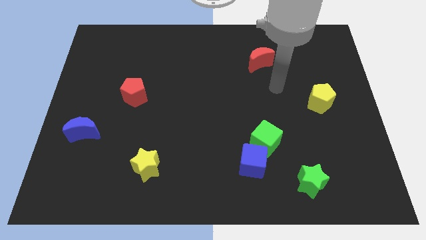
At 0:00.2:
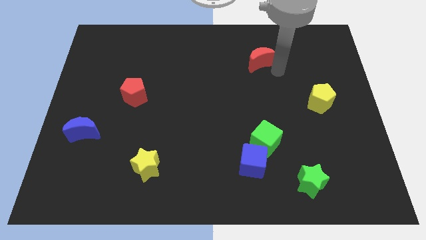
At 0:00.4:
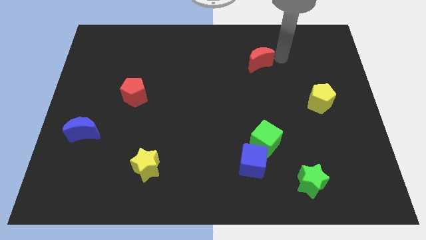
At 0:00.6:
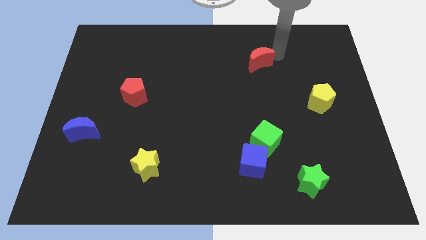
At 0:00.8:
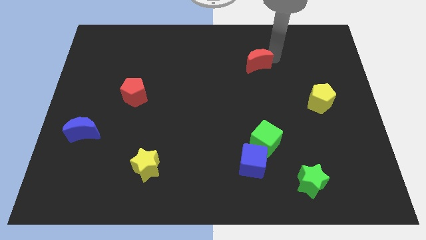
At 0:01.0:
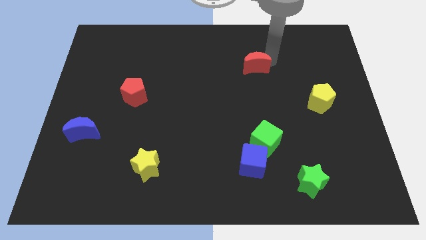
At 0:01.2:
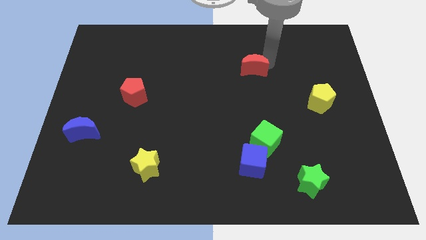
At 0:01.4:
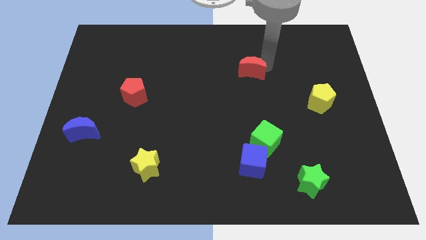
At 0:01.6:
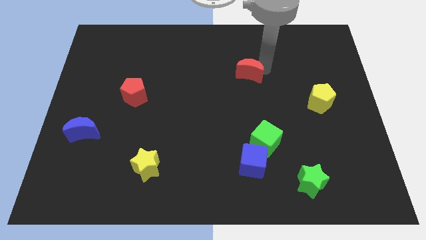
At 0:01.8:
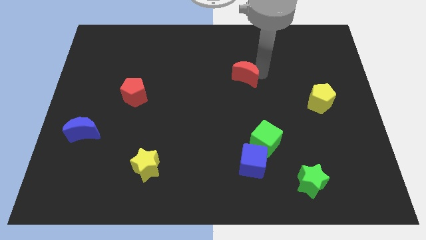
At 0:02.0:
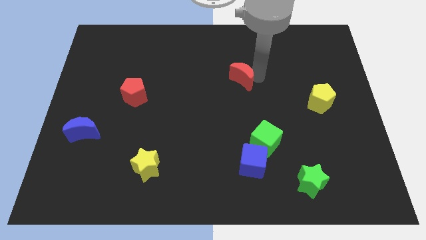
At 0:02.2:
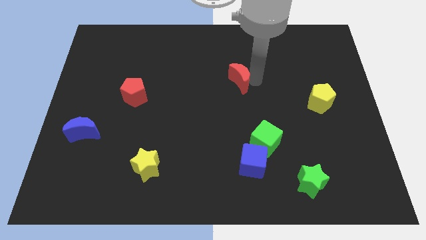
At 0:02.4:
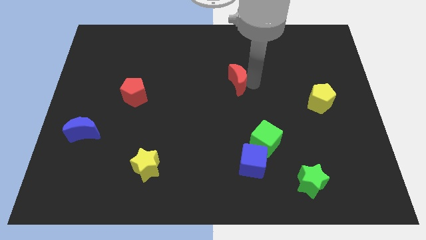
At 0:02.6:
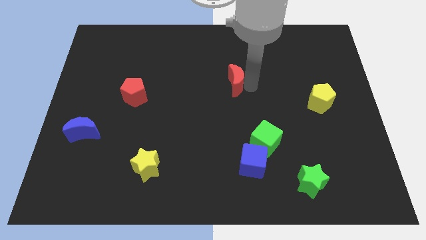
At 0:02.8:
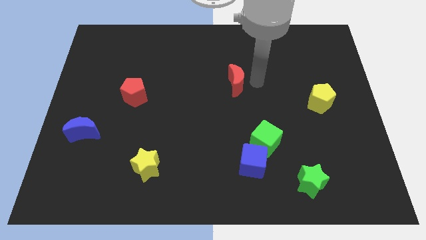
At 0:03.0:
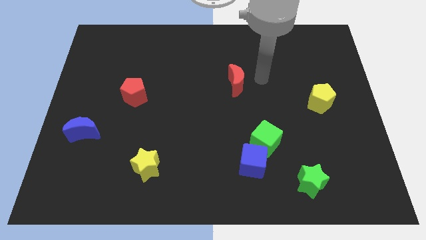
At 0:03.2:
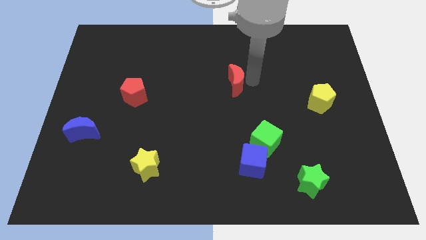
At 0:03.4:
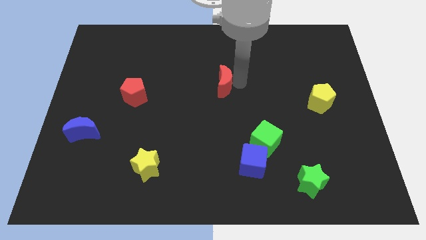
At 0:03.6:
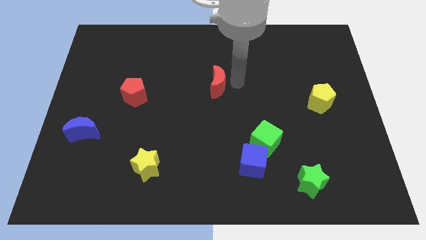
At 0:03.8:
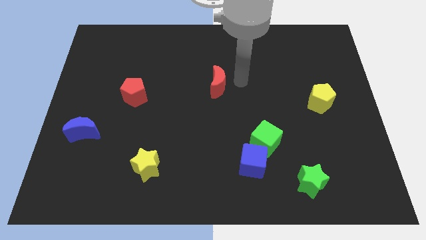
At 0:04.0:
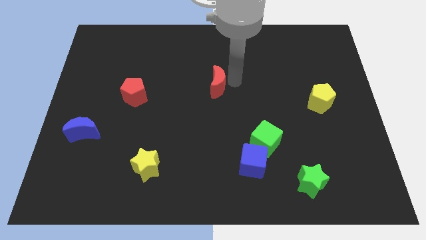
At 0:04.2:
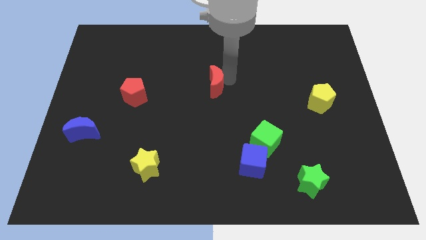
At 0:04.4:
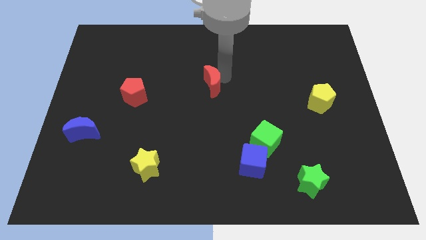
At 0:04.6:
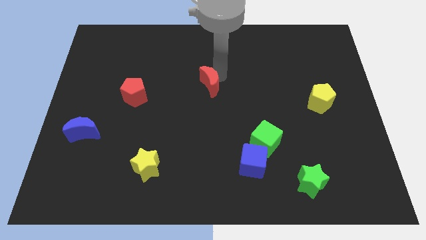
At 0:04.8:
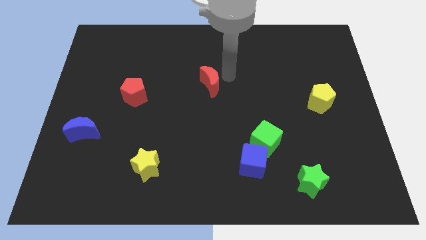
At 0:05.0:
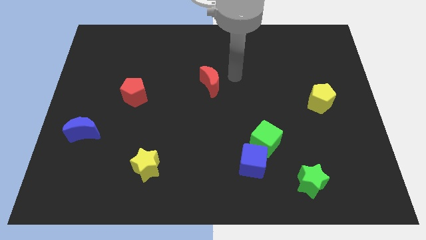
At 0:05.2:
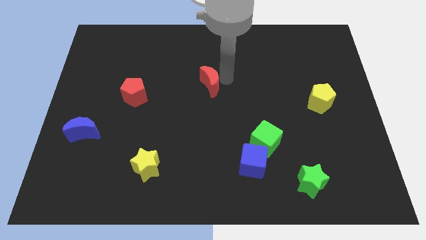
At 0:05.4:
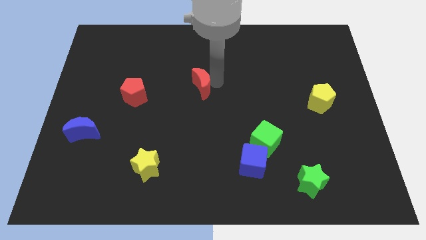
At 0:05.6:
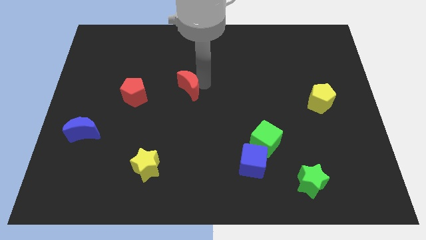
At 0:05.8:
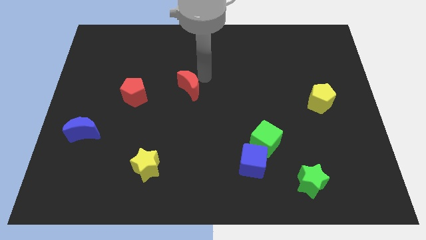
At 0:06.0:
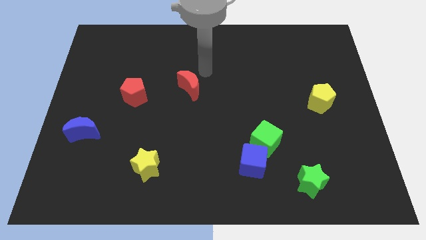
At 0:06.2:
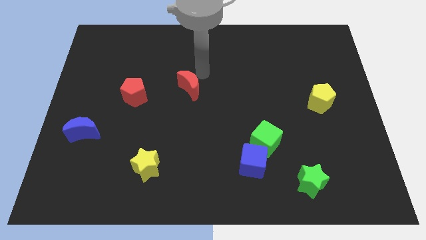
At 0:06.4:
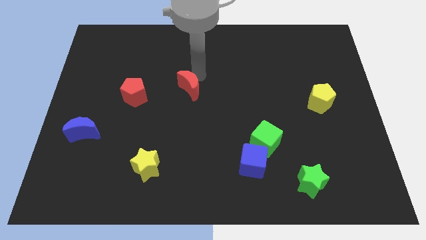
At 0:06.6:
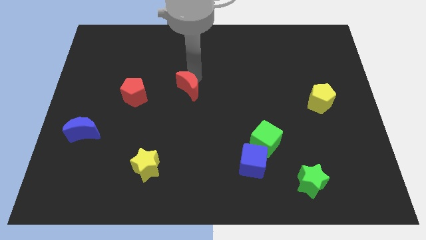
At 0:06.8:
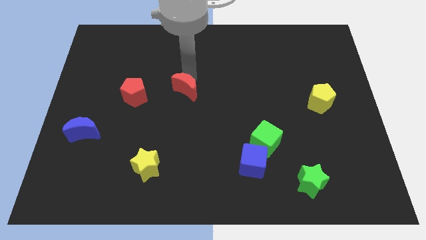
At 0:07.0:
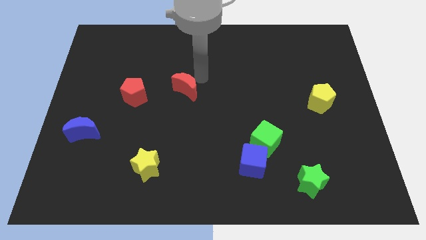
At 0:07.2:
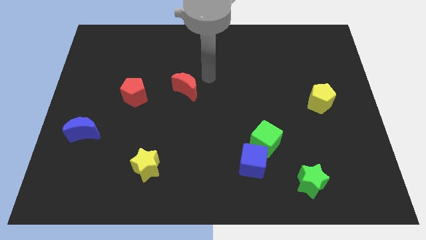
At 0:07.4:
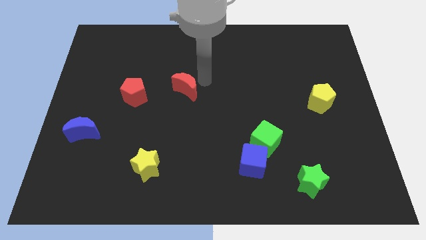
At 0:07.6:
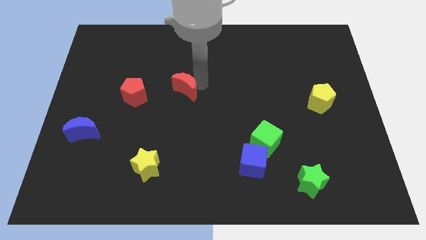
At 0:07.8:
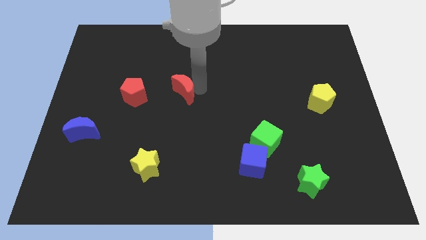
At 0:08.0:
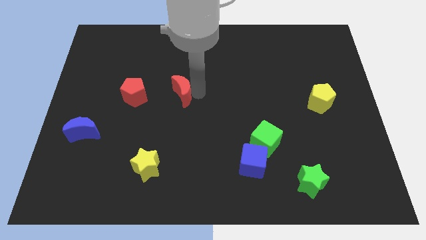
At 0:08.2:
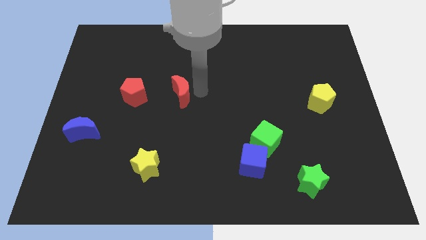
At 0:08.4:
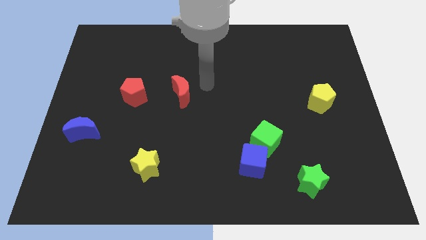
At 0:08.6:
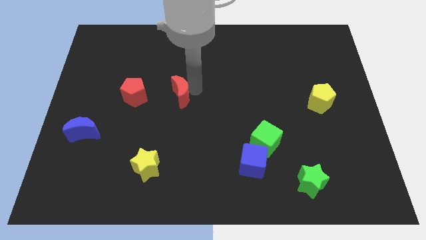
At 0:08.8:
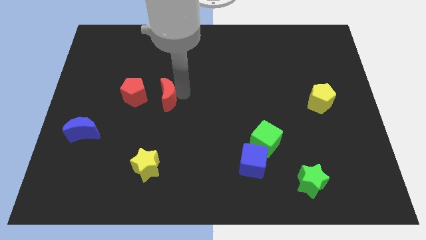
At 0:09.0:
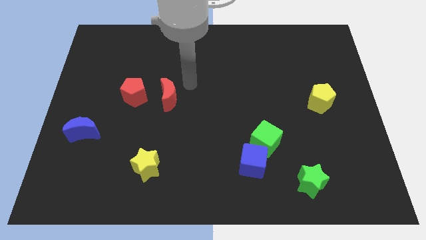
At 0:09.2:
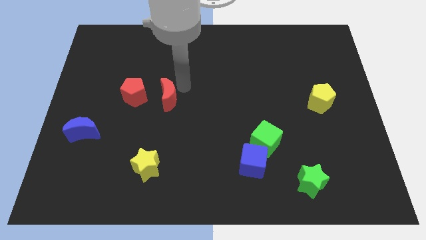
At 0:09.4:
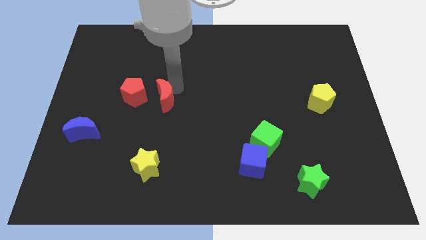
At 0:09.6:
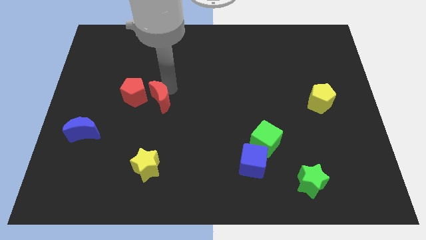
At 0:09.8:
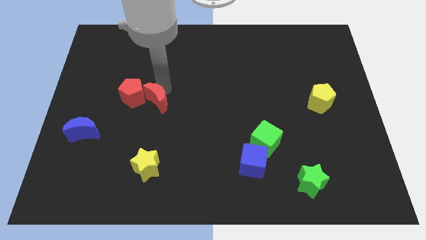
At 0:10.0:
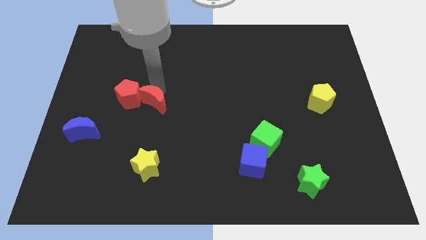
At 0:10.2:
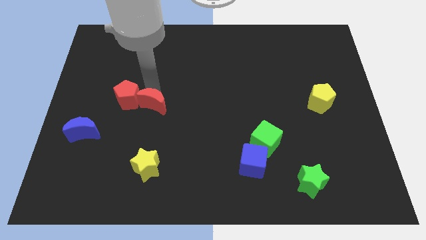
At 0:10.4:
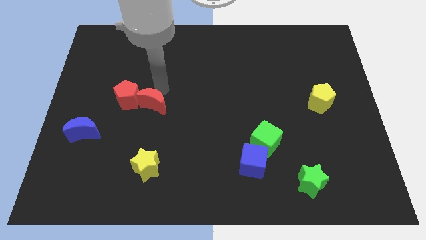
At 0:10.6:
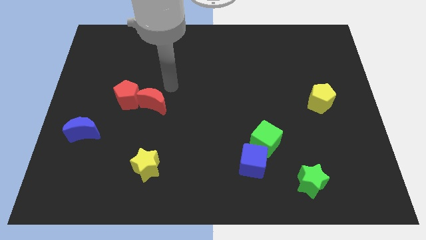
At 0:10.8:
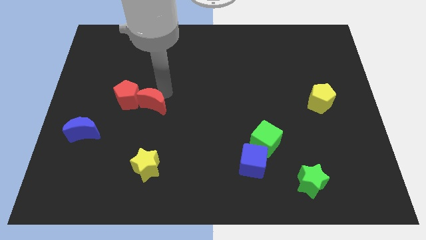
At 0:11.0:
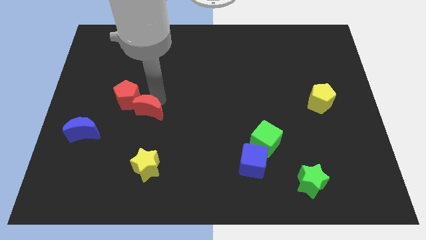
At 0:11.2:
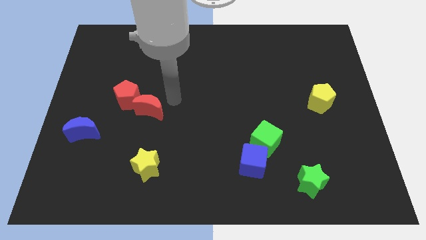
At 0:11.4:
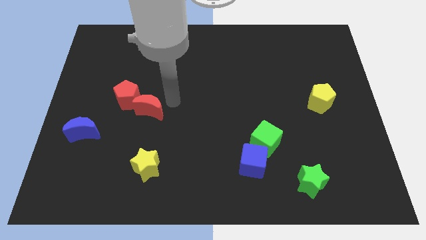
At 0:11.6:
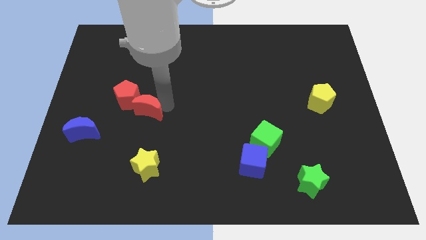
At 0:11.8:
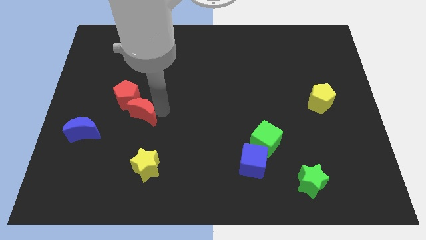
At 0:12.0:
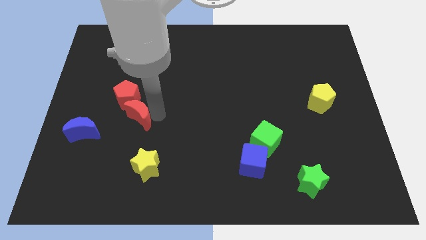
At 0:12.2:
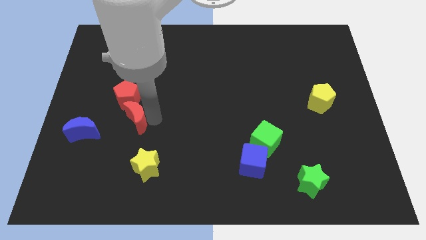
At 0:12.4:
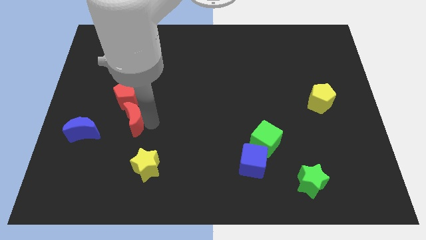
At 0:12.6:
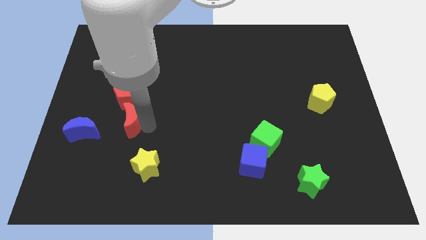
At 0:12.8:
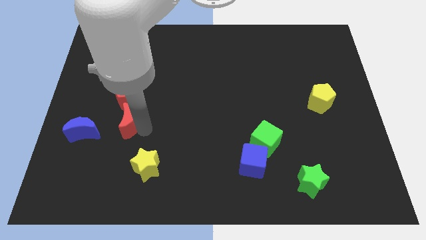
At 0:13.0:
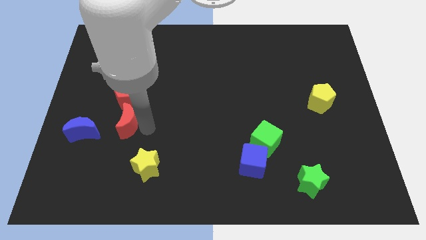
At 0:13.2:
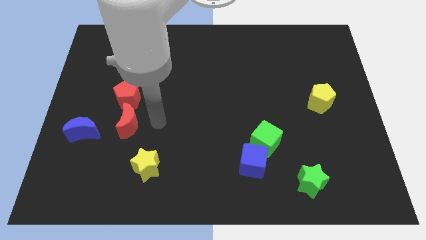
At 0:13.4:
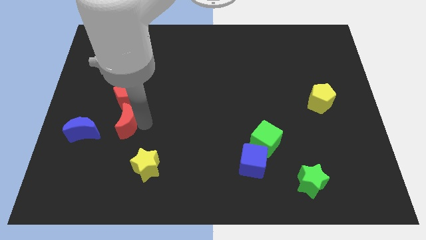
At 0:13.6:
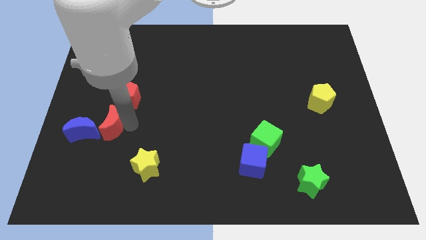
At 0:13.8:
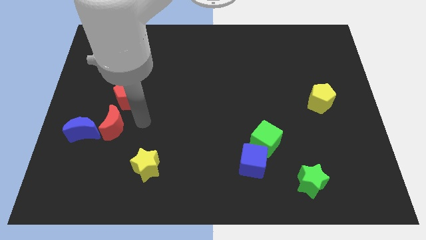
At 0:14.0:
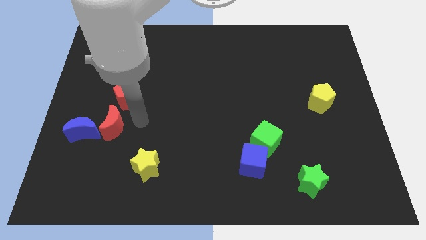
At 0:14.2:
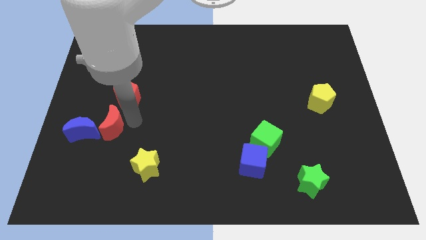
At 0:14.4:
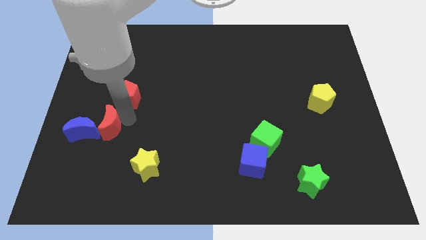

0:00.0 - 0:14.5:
put the red moon close to the blue moon
